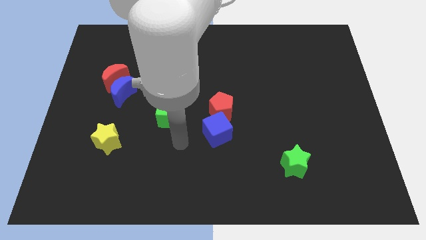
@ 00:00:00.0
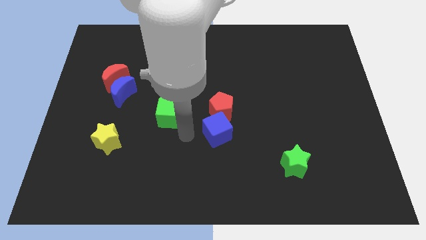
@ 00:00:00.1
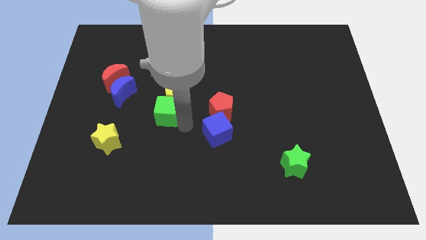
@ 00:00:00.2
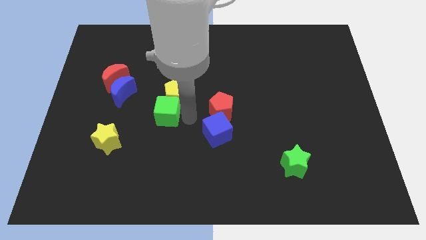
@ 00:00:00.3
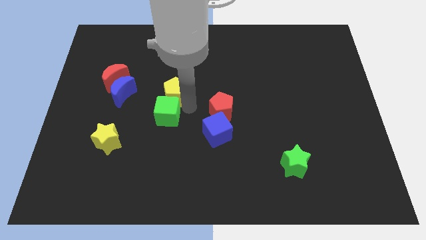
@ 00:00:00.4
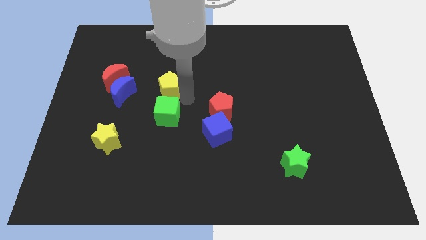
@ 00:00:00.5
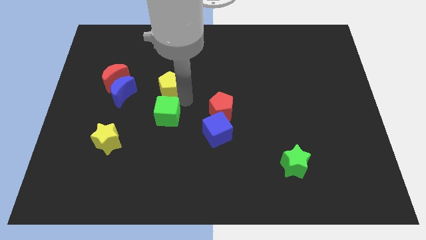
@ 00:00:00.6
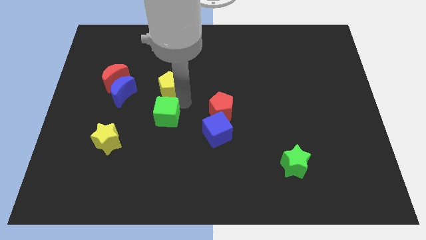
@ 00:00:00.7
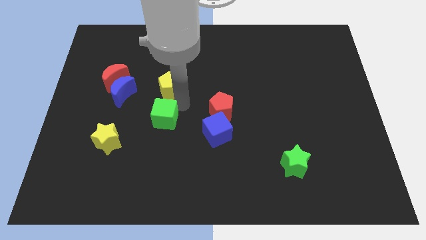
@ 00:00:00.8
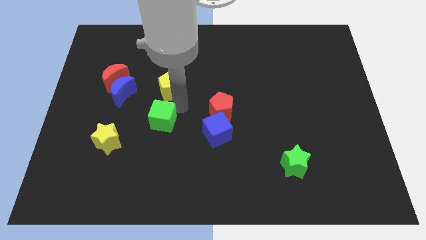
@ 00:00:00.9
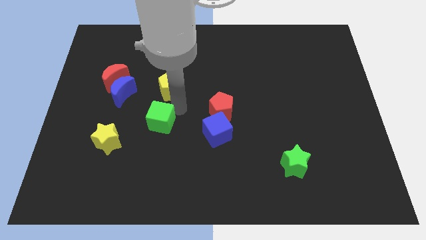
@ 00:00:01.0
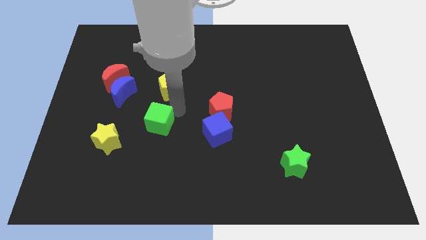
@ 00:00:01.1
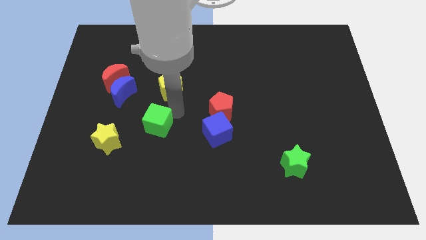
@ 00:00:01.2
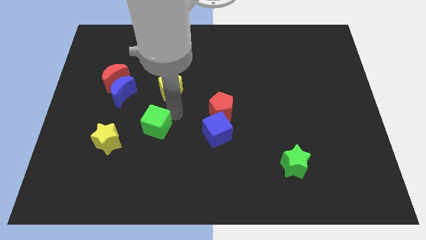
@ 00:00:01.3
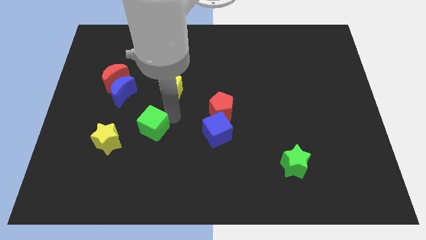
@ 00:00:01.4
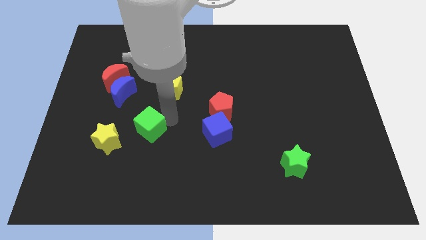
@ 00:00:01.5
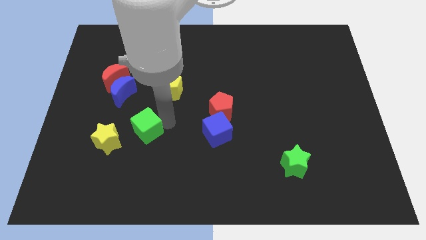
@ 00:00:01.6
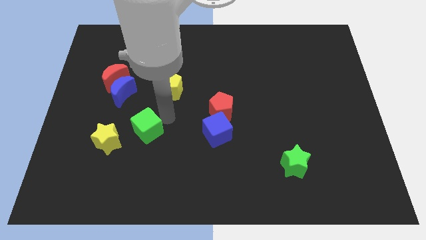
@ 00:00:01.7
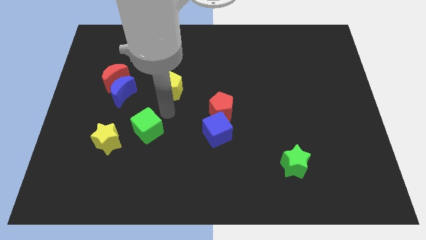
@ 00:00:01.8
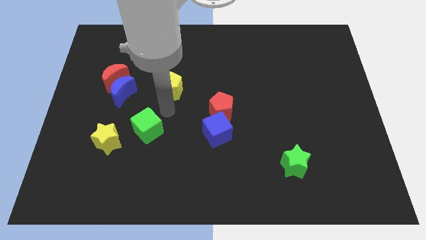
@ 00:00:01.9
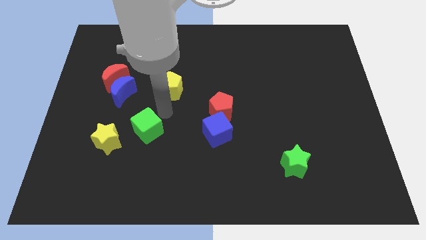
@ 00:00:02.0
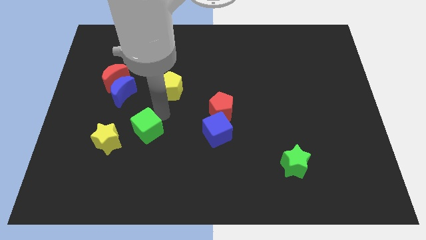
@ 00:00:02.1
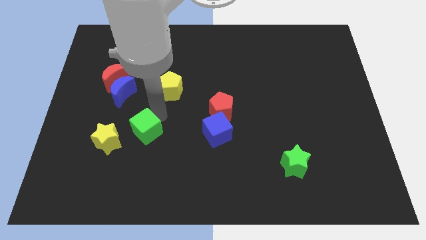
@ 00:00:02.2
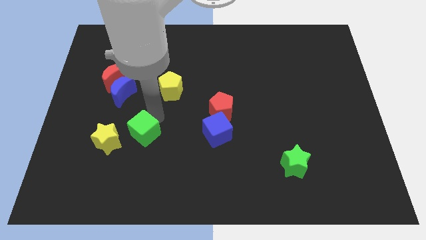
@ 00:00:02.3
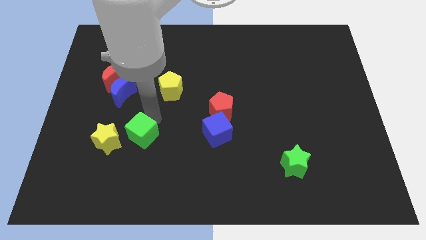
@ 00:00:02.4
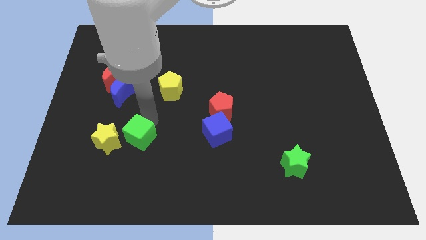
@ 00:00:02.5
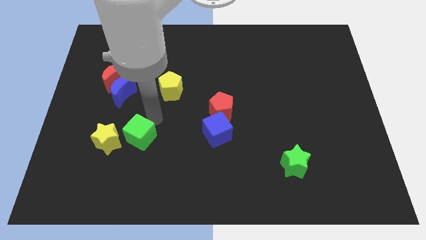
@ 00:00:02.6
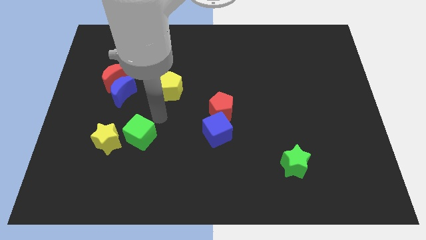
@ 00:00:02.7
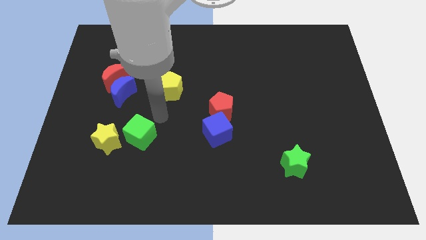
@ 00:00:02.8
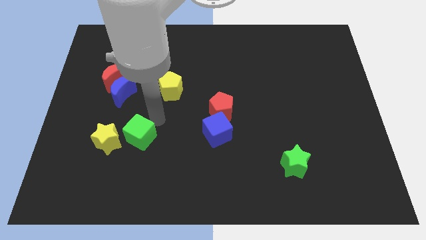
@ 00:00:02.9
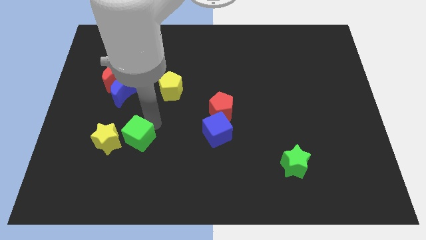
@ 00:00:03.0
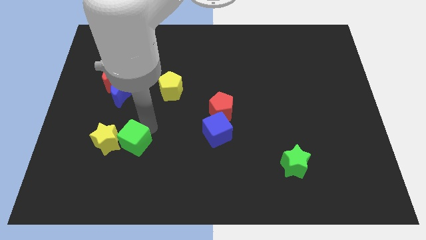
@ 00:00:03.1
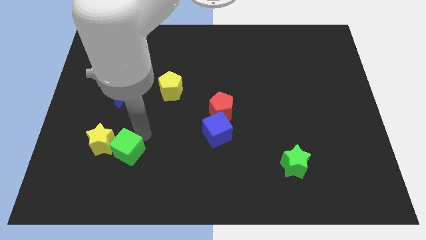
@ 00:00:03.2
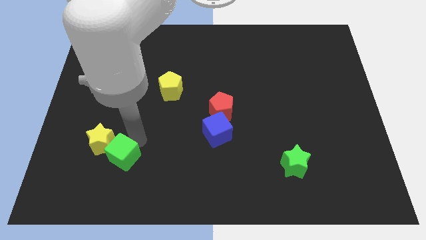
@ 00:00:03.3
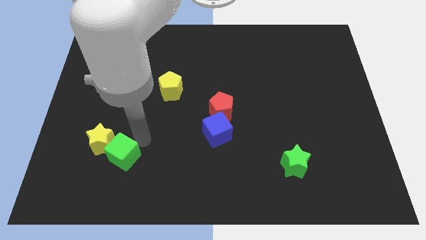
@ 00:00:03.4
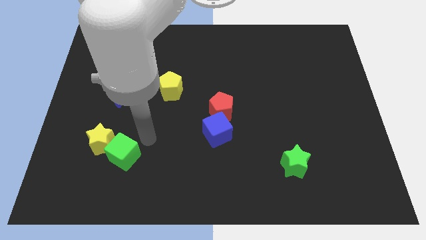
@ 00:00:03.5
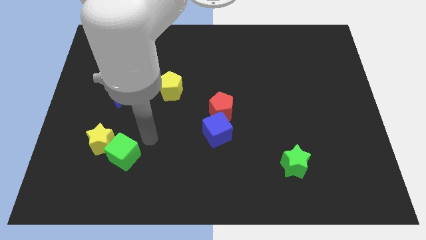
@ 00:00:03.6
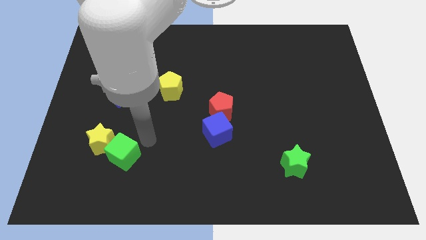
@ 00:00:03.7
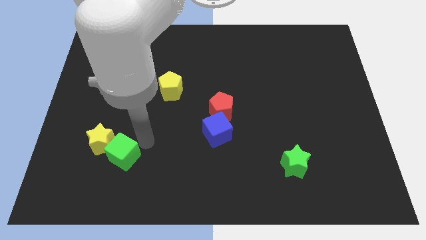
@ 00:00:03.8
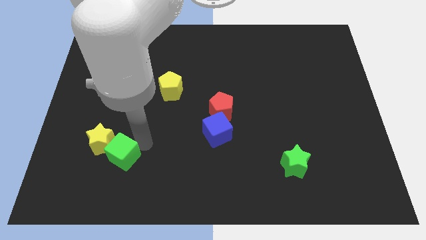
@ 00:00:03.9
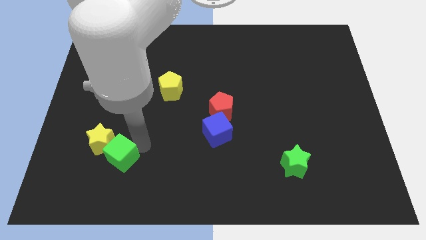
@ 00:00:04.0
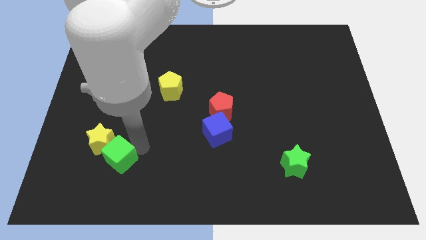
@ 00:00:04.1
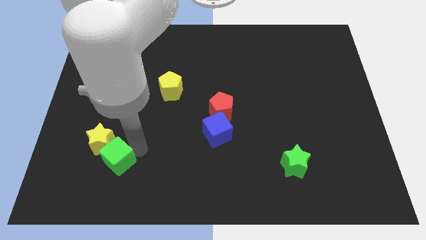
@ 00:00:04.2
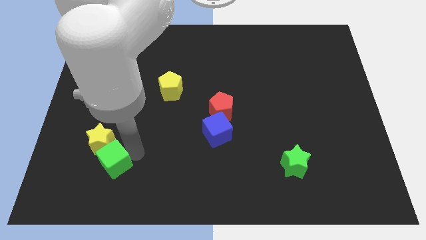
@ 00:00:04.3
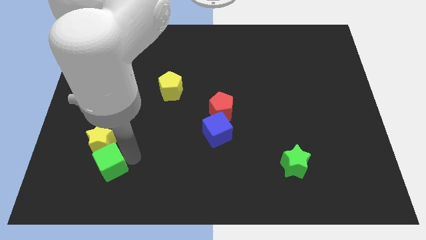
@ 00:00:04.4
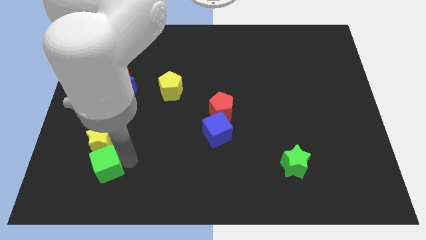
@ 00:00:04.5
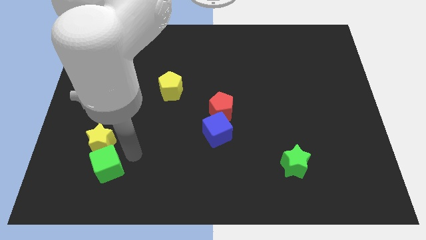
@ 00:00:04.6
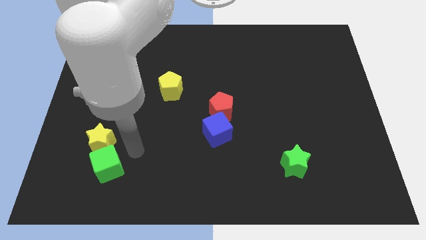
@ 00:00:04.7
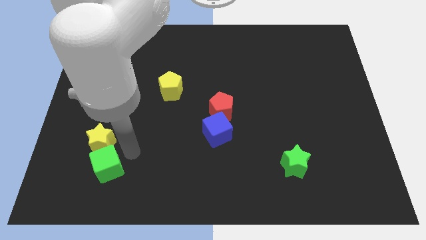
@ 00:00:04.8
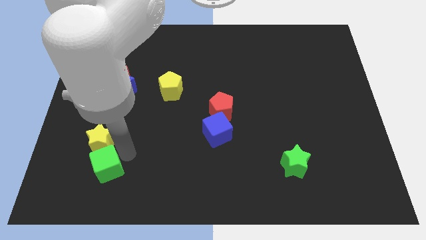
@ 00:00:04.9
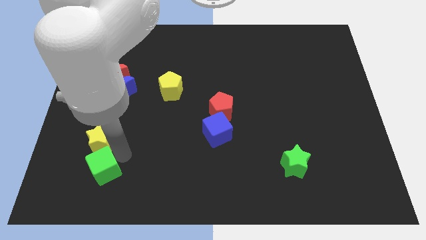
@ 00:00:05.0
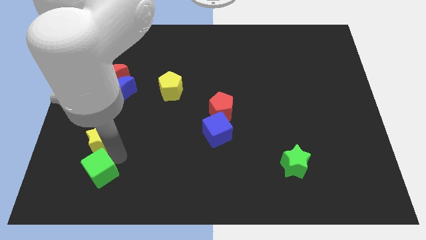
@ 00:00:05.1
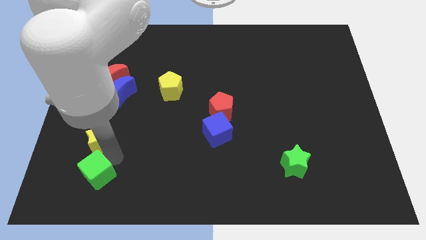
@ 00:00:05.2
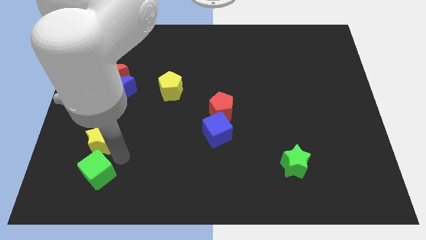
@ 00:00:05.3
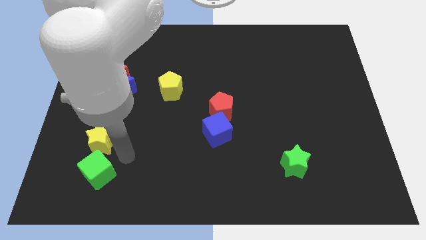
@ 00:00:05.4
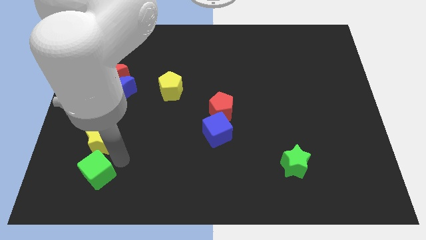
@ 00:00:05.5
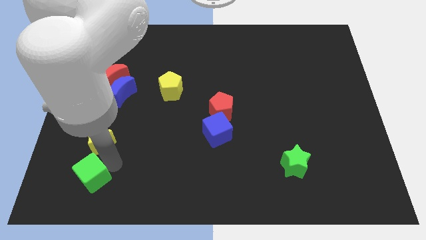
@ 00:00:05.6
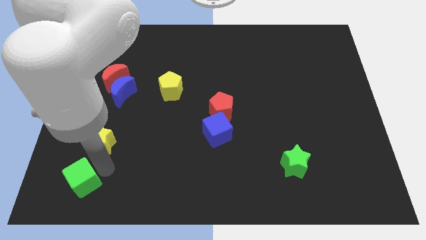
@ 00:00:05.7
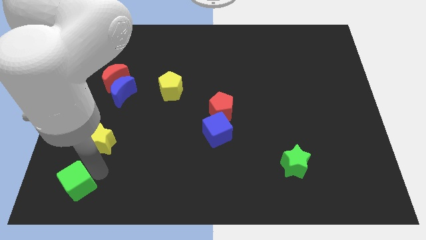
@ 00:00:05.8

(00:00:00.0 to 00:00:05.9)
move the green cube to the bottom left corner
